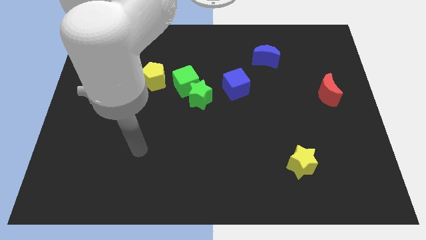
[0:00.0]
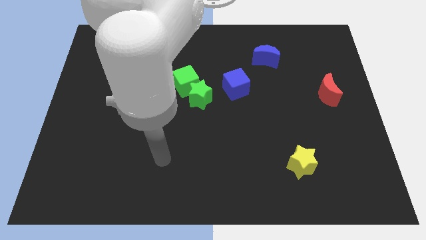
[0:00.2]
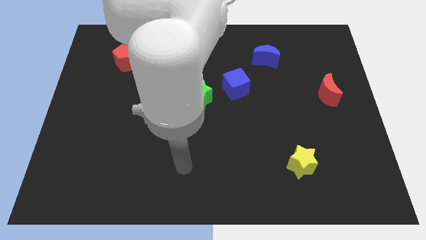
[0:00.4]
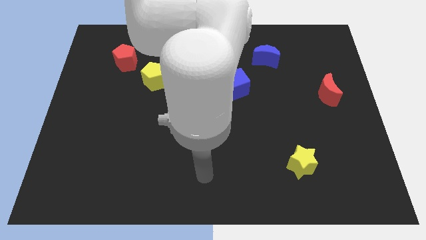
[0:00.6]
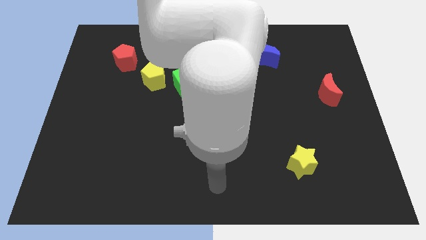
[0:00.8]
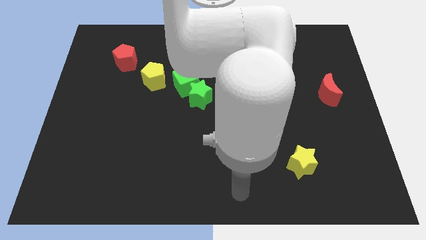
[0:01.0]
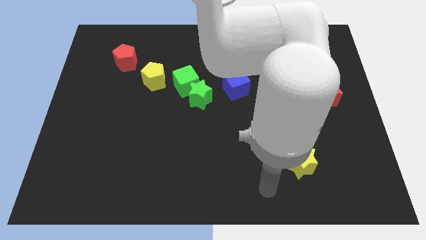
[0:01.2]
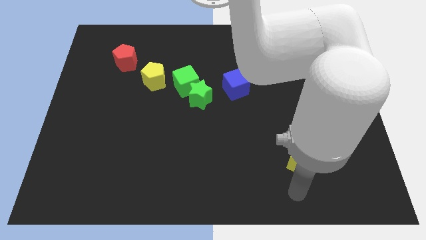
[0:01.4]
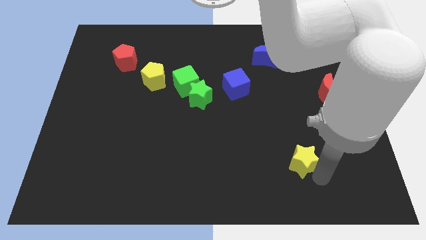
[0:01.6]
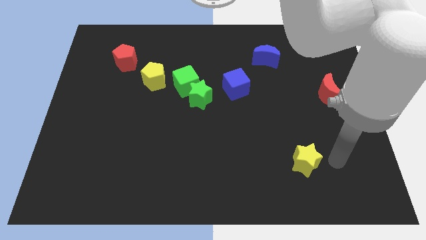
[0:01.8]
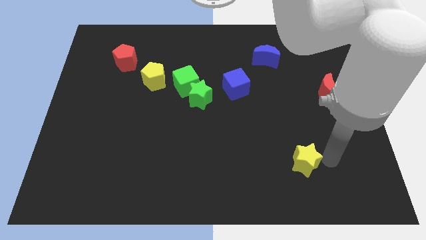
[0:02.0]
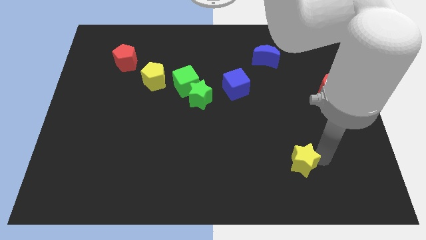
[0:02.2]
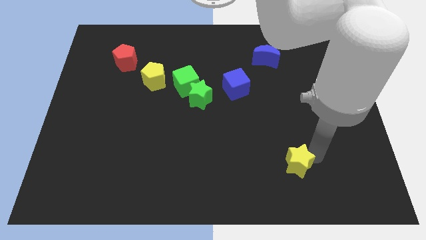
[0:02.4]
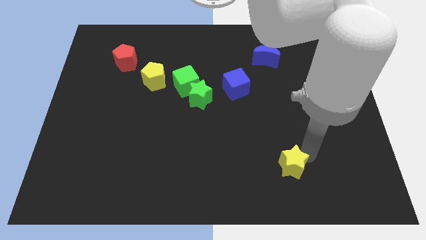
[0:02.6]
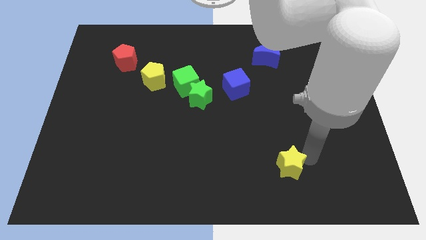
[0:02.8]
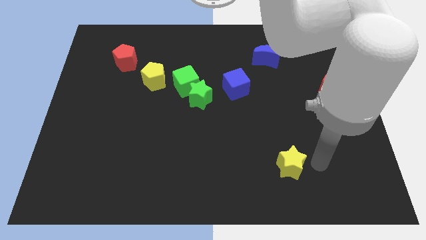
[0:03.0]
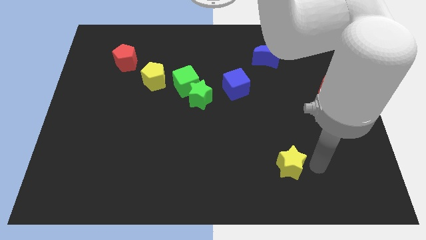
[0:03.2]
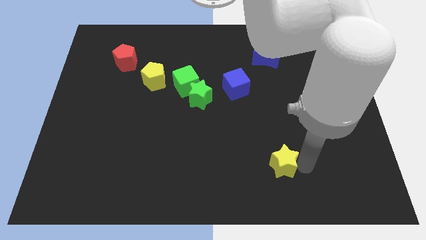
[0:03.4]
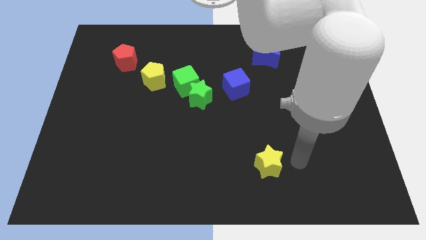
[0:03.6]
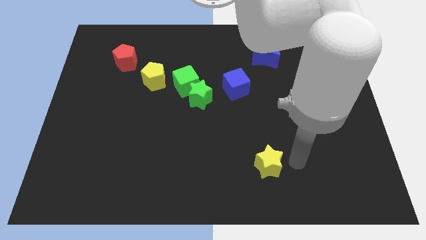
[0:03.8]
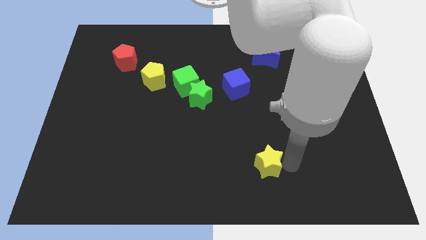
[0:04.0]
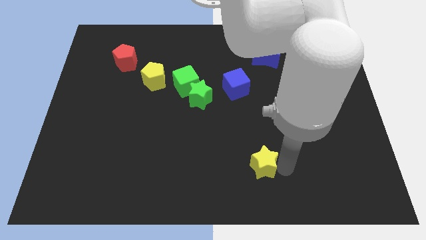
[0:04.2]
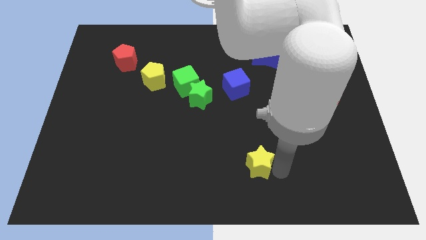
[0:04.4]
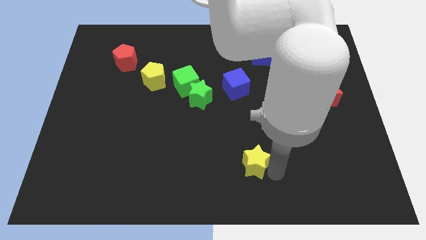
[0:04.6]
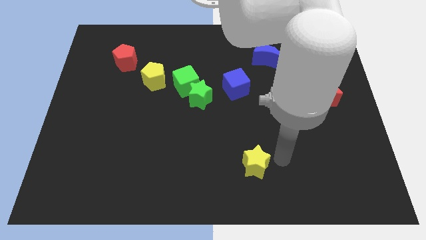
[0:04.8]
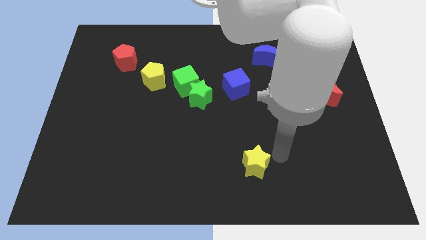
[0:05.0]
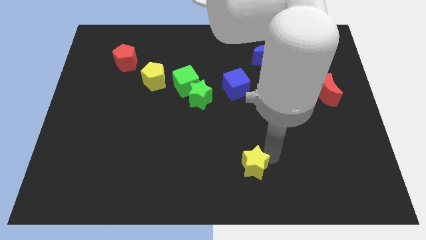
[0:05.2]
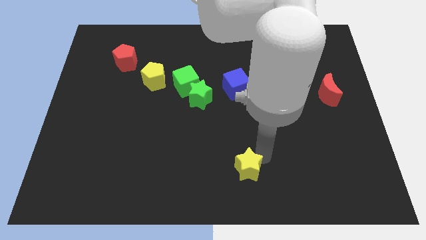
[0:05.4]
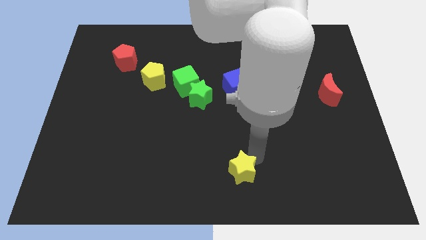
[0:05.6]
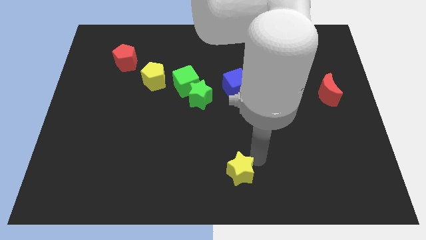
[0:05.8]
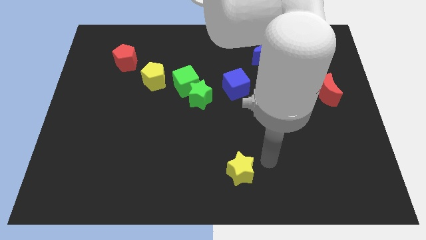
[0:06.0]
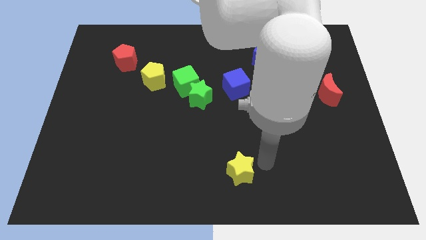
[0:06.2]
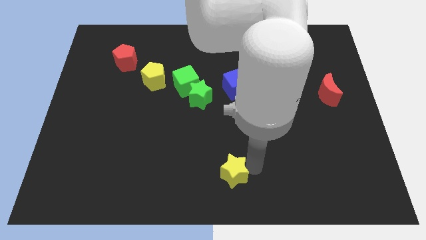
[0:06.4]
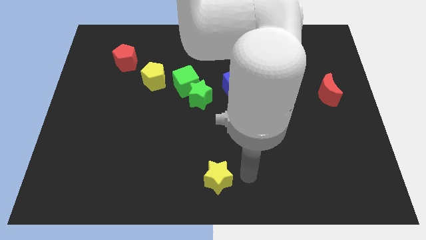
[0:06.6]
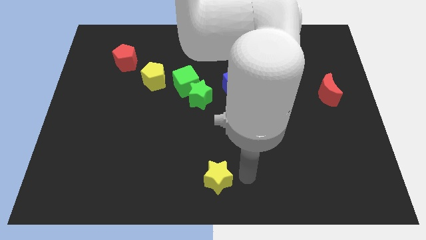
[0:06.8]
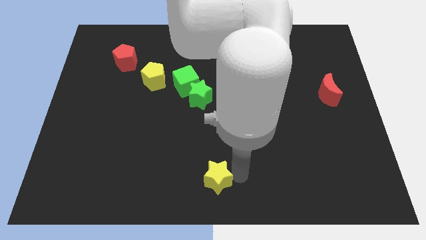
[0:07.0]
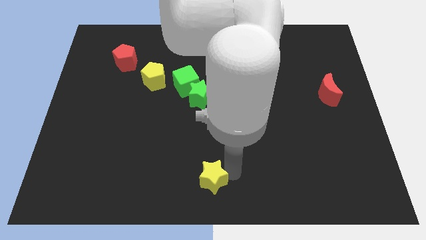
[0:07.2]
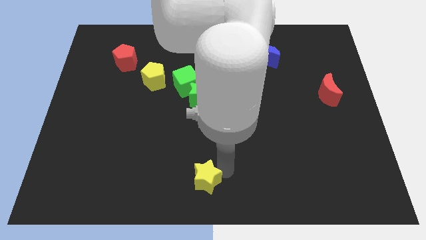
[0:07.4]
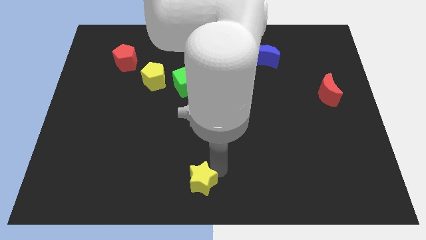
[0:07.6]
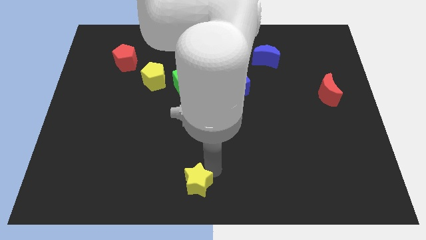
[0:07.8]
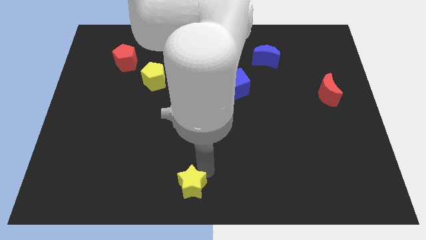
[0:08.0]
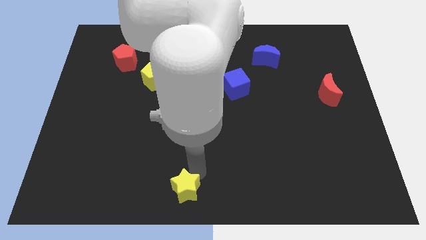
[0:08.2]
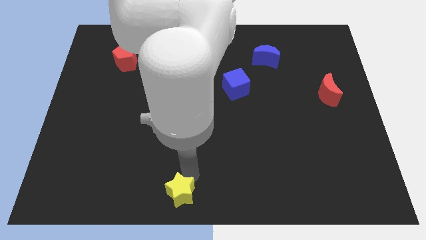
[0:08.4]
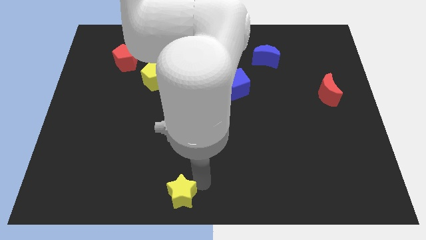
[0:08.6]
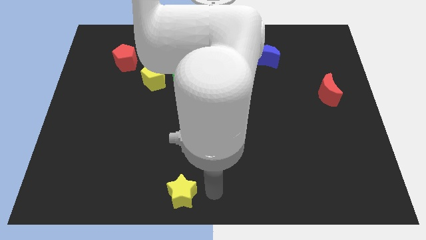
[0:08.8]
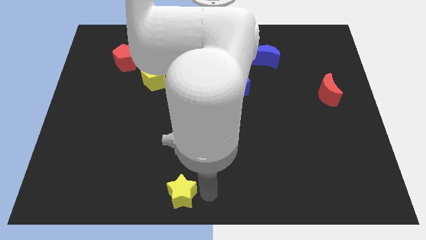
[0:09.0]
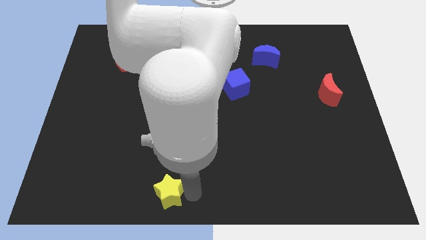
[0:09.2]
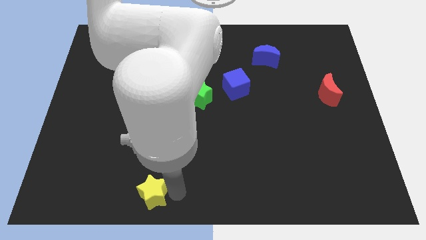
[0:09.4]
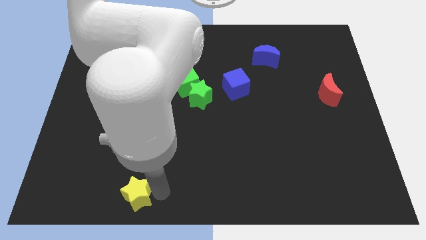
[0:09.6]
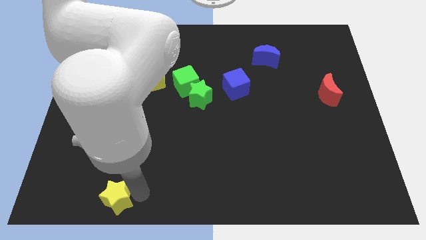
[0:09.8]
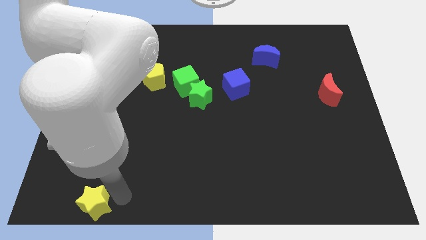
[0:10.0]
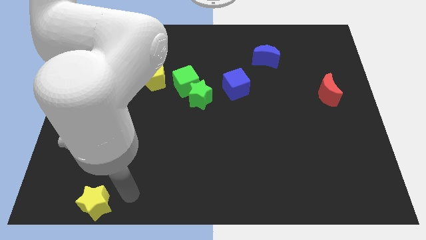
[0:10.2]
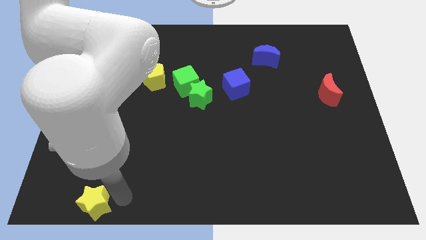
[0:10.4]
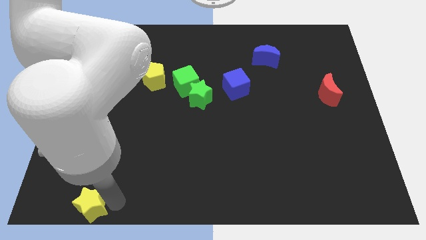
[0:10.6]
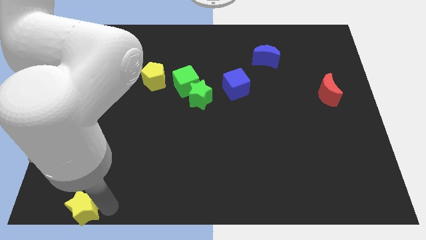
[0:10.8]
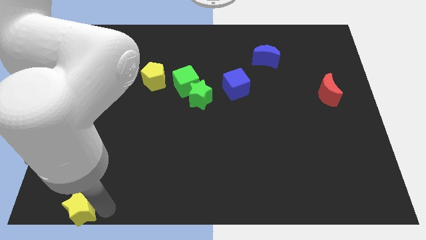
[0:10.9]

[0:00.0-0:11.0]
put the yellow star to the bottom left corner
